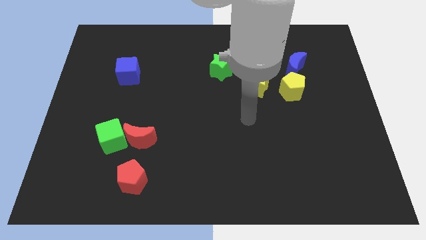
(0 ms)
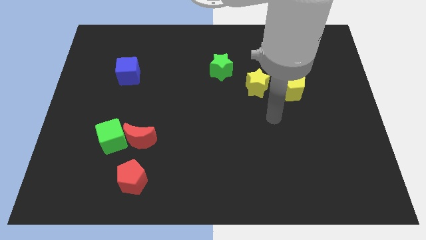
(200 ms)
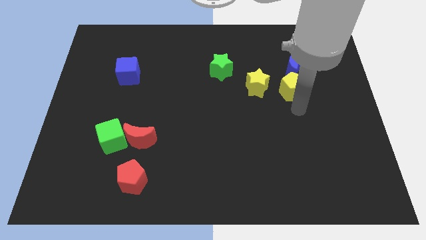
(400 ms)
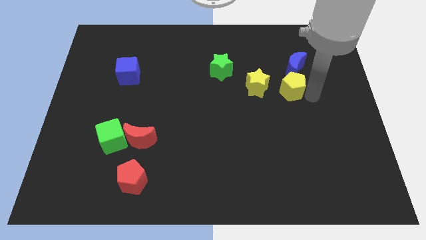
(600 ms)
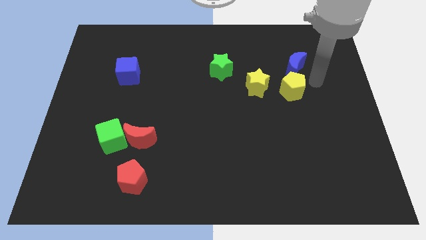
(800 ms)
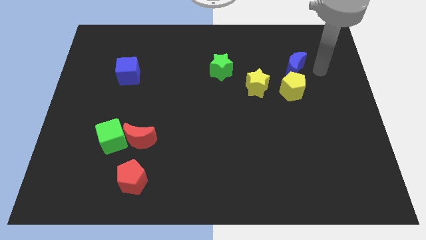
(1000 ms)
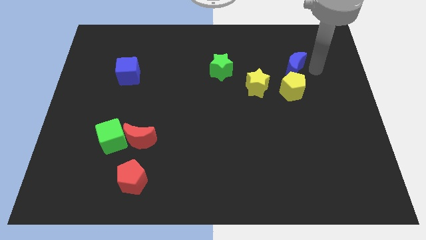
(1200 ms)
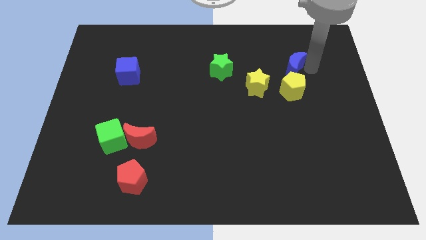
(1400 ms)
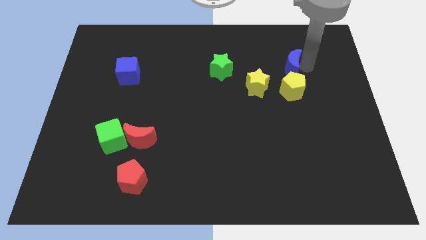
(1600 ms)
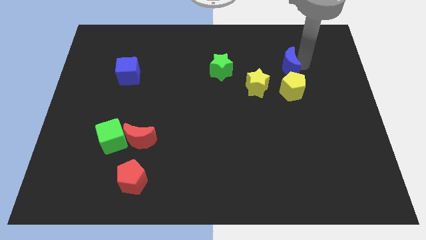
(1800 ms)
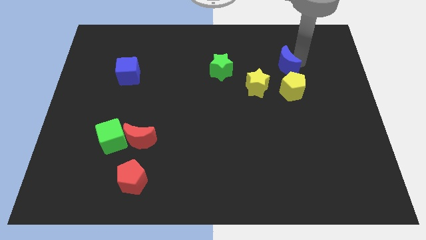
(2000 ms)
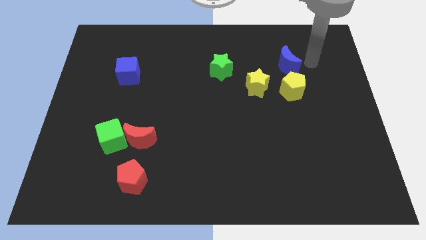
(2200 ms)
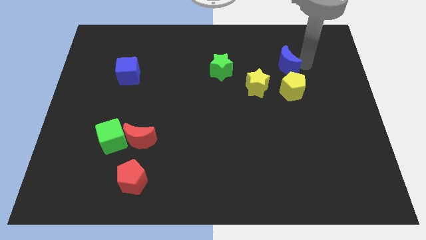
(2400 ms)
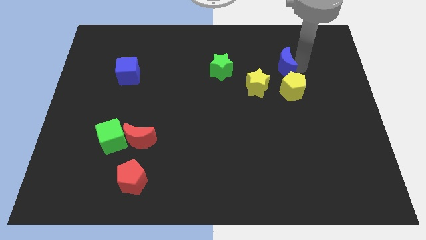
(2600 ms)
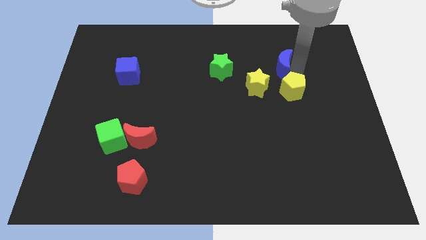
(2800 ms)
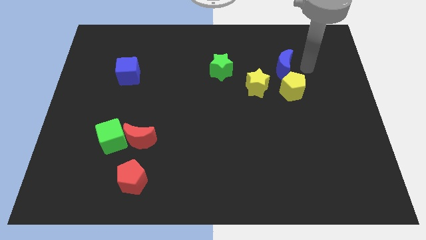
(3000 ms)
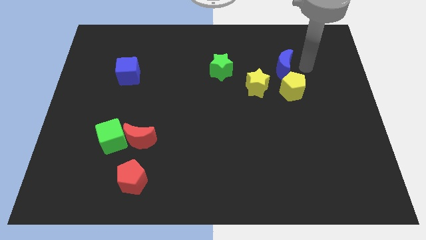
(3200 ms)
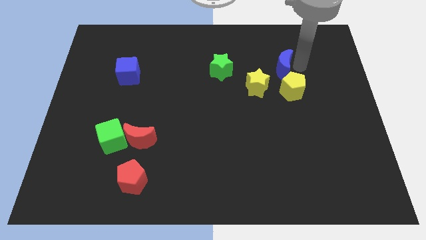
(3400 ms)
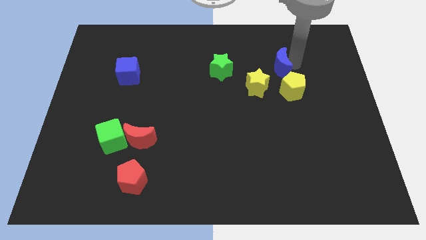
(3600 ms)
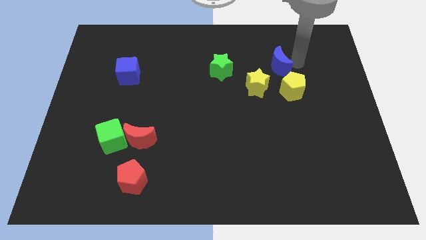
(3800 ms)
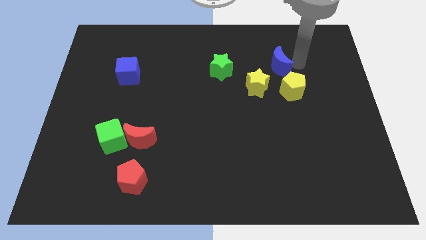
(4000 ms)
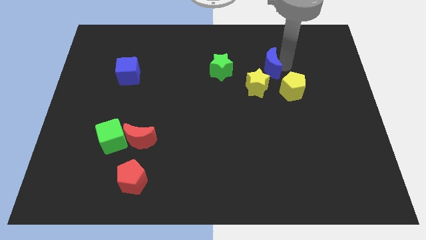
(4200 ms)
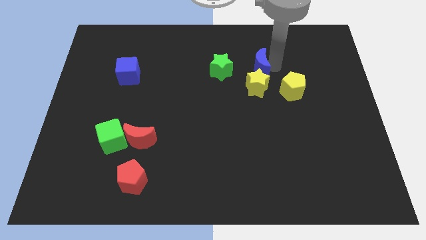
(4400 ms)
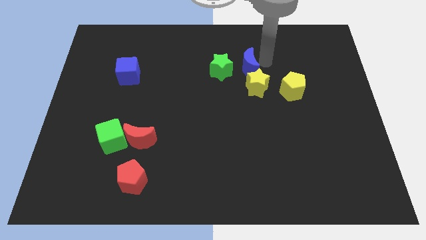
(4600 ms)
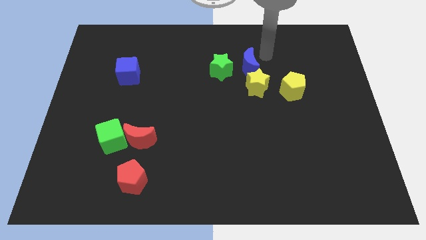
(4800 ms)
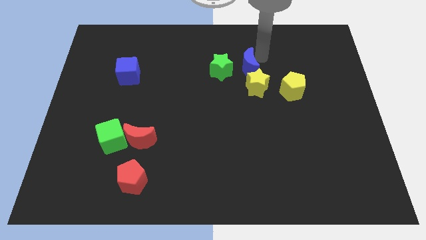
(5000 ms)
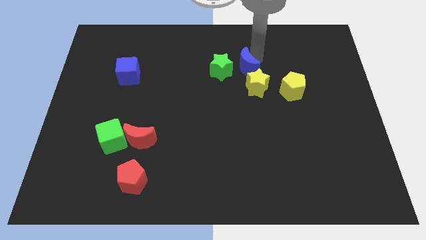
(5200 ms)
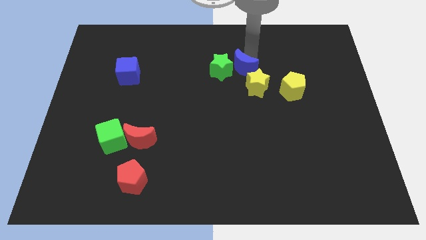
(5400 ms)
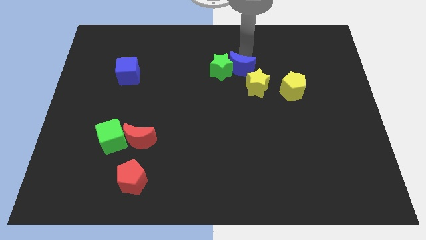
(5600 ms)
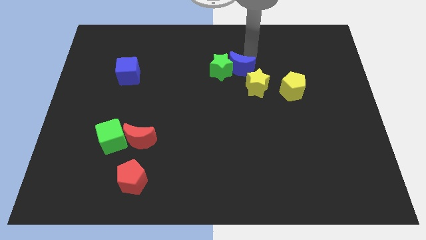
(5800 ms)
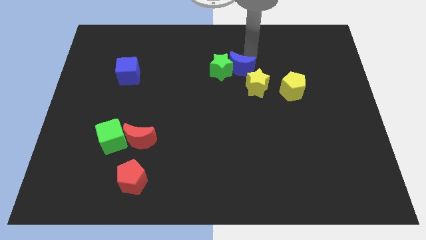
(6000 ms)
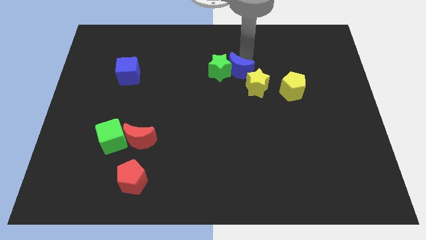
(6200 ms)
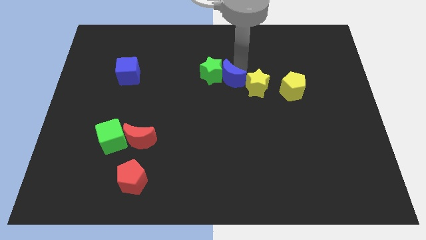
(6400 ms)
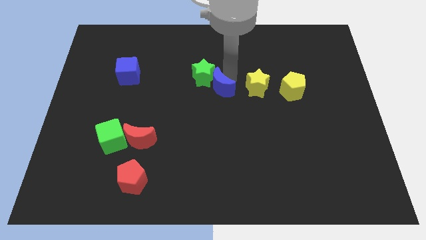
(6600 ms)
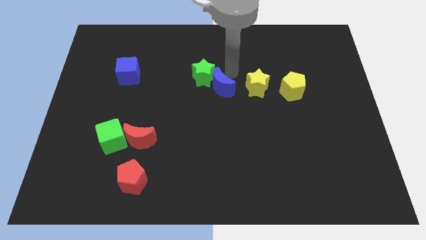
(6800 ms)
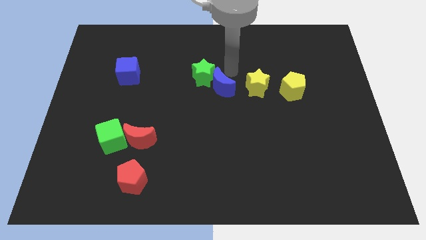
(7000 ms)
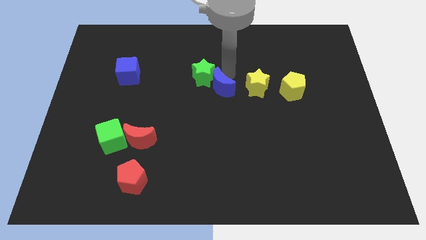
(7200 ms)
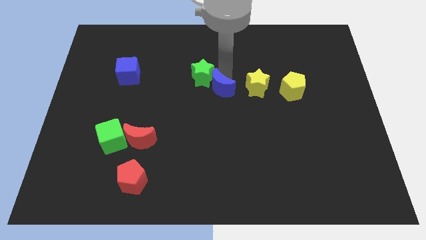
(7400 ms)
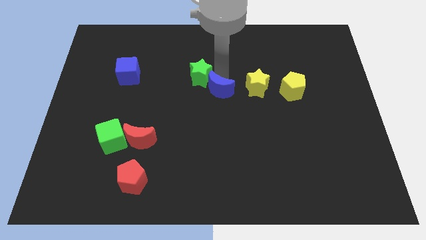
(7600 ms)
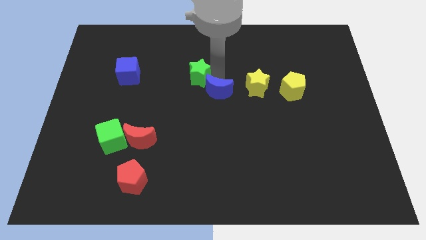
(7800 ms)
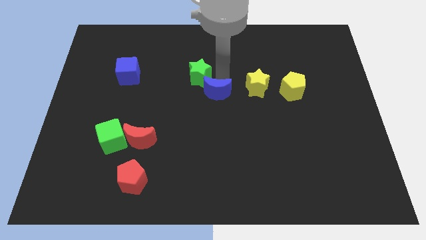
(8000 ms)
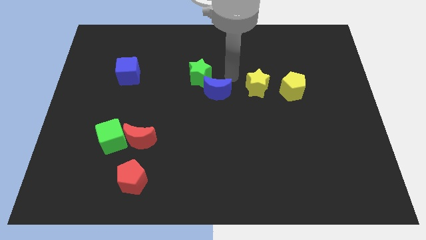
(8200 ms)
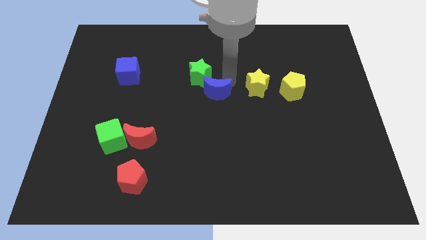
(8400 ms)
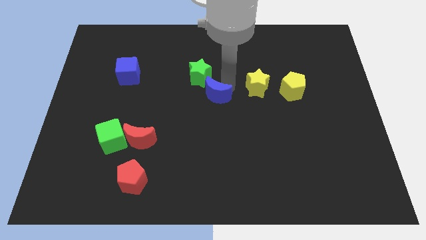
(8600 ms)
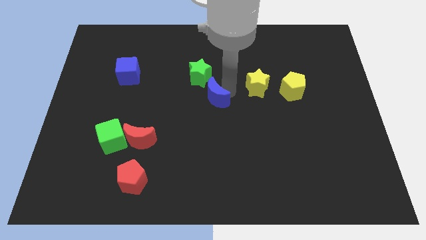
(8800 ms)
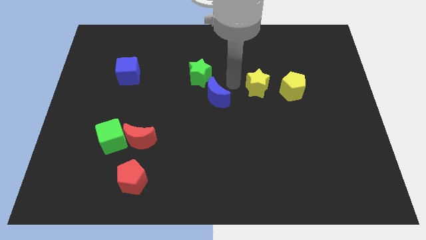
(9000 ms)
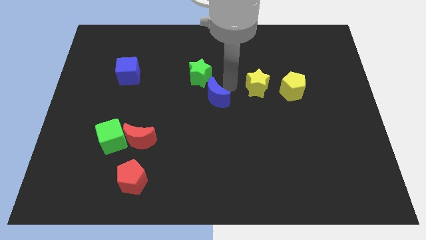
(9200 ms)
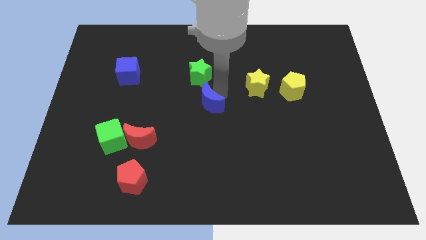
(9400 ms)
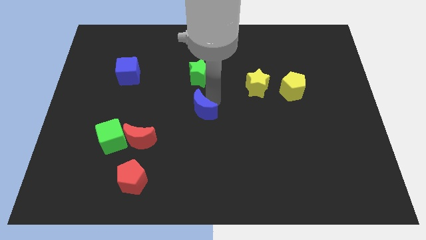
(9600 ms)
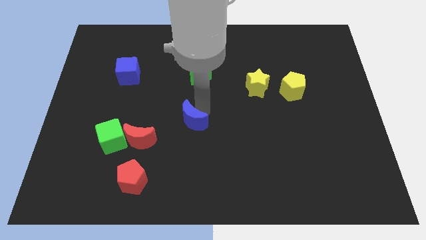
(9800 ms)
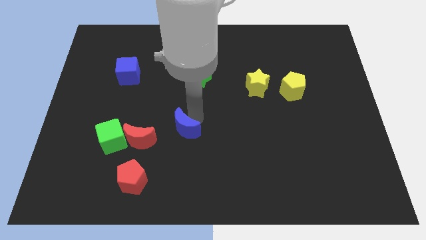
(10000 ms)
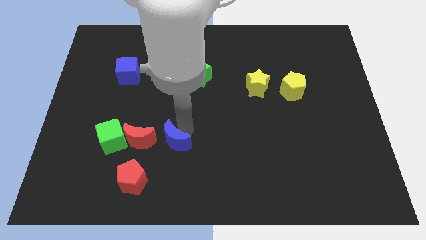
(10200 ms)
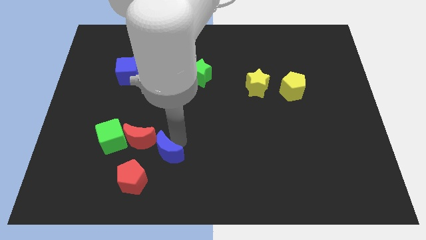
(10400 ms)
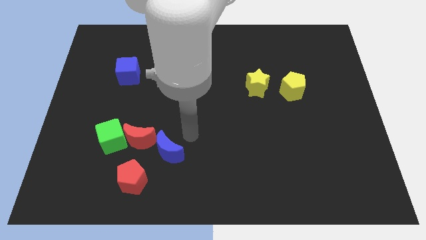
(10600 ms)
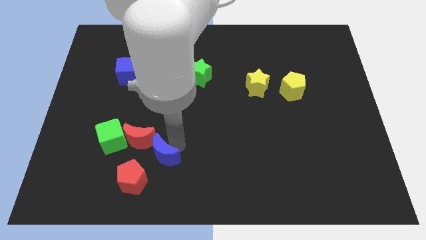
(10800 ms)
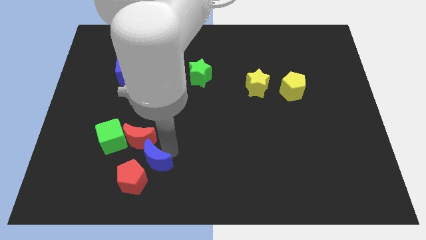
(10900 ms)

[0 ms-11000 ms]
move the blue moon next to the red pentagon

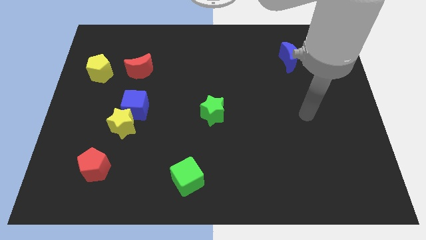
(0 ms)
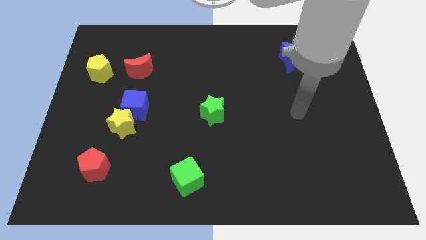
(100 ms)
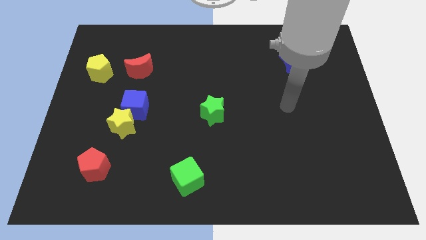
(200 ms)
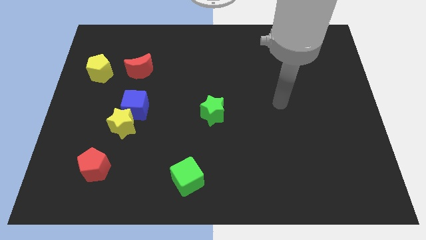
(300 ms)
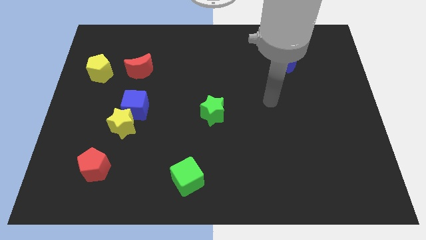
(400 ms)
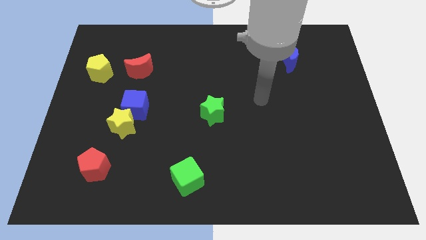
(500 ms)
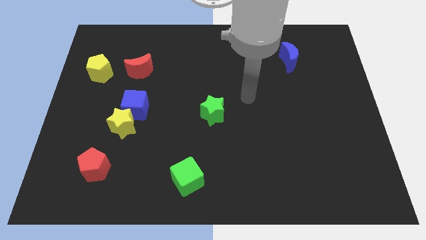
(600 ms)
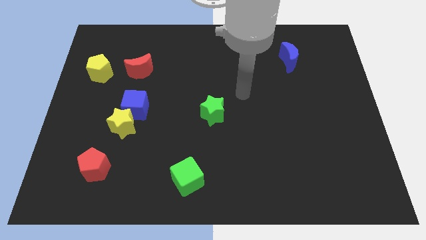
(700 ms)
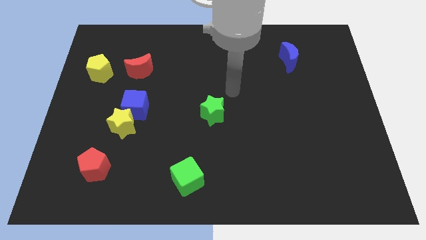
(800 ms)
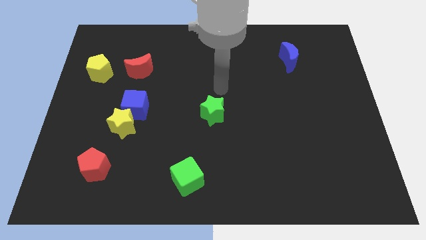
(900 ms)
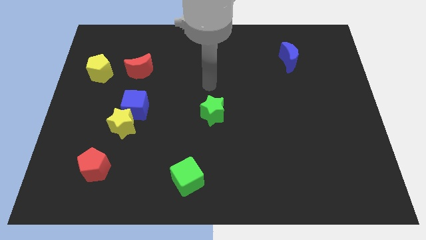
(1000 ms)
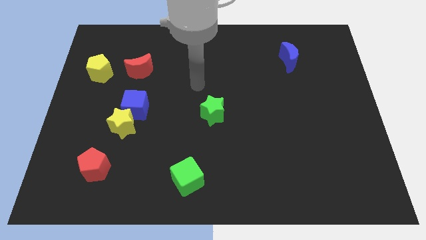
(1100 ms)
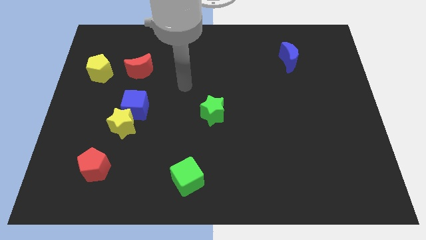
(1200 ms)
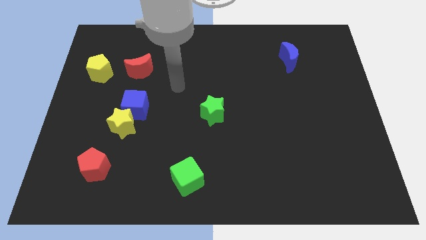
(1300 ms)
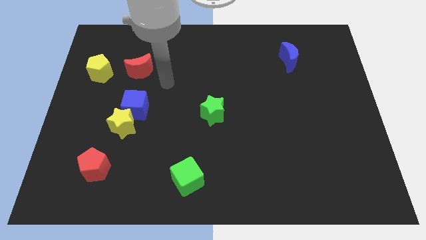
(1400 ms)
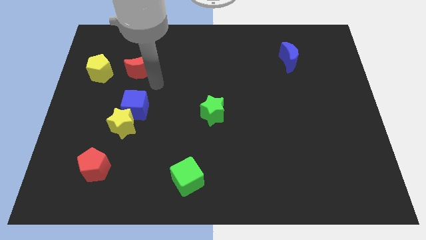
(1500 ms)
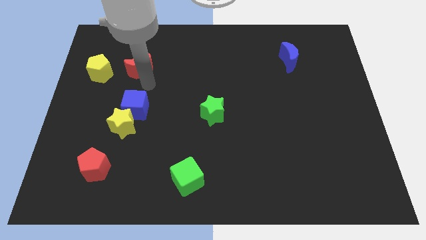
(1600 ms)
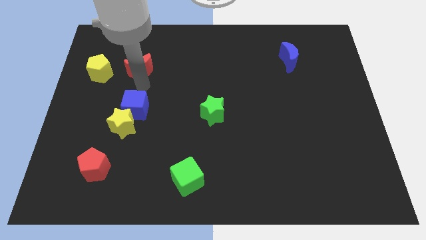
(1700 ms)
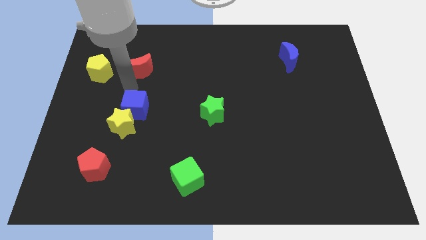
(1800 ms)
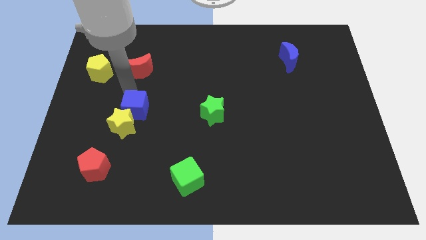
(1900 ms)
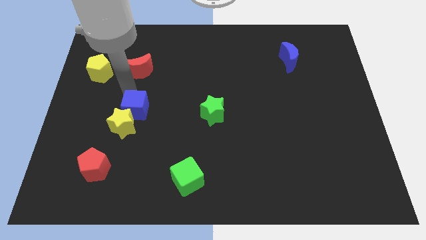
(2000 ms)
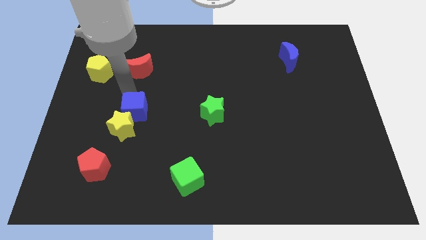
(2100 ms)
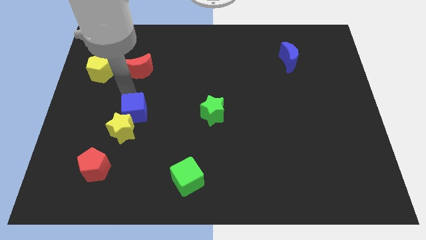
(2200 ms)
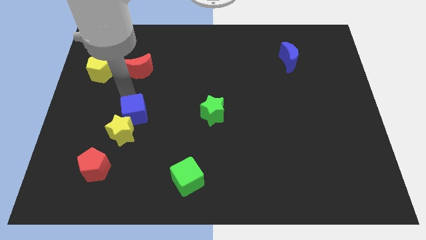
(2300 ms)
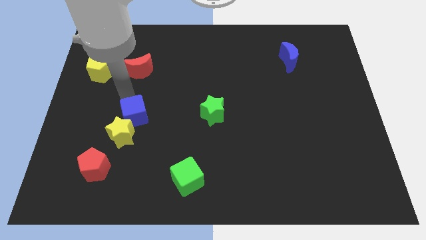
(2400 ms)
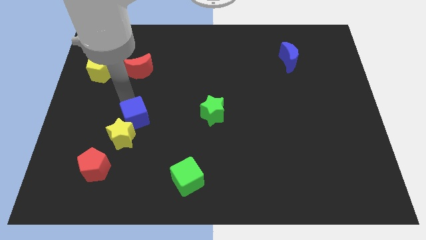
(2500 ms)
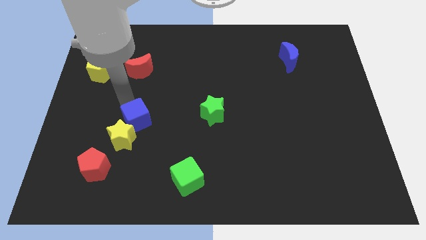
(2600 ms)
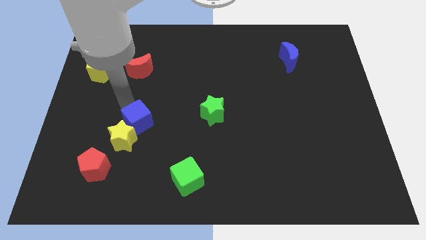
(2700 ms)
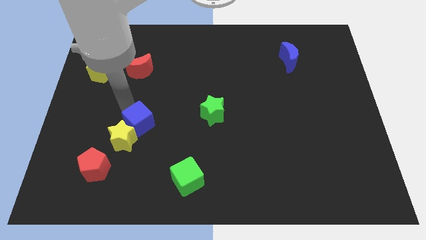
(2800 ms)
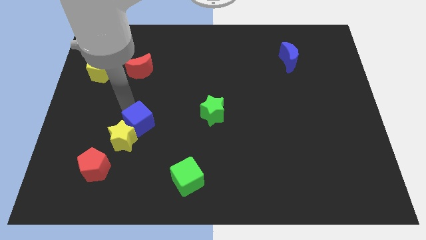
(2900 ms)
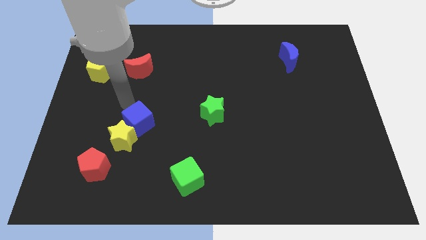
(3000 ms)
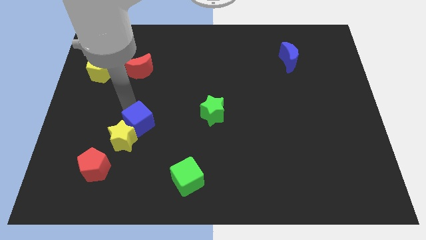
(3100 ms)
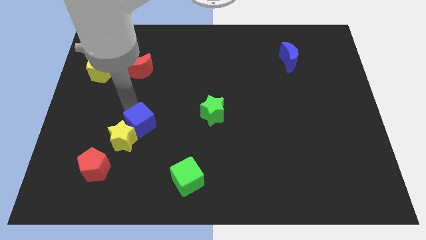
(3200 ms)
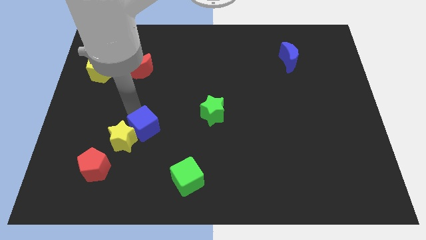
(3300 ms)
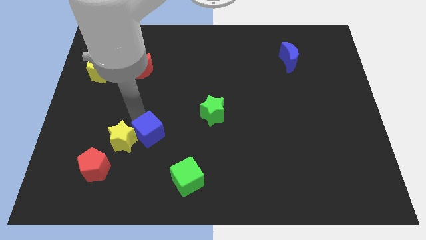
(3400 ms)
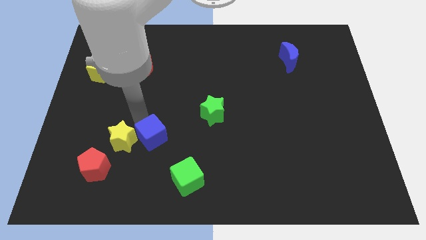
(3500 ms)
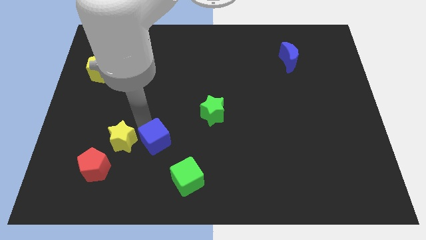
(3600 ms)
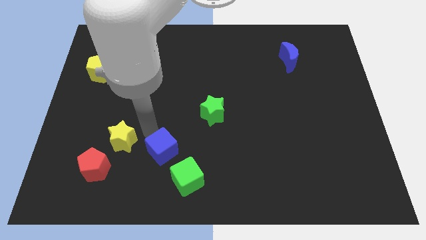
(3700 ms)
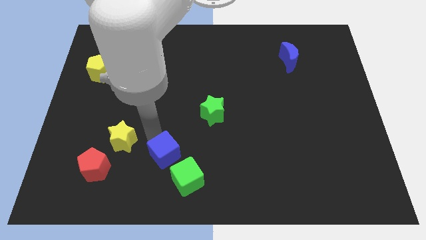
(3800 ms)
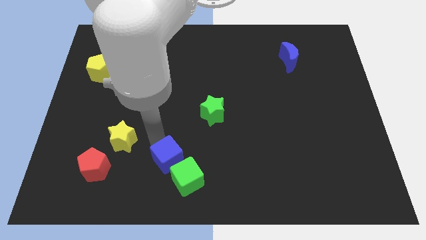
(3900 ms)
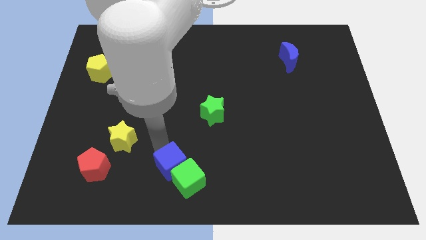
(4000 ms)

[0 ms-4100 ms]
move the blue cube next to the green cube
